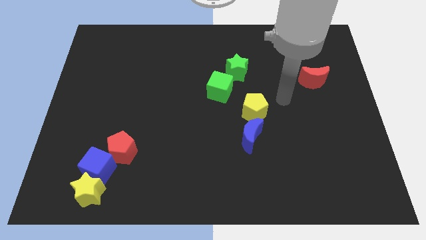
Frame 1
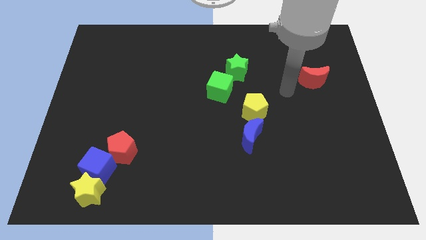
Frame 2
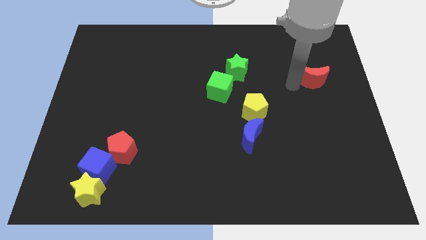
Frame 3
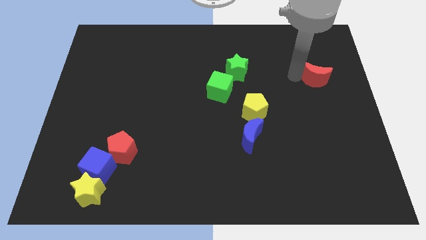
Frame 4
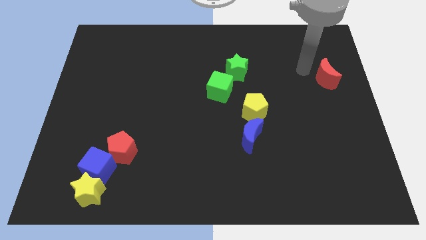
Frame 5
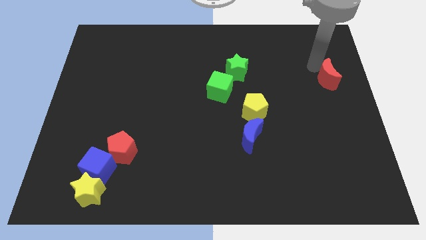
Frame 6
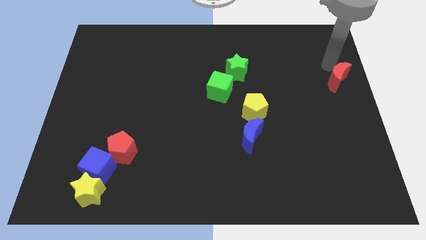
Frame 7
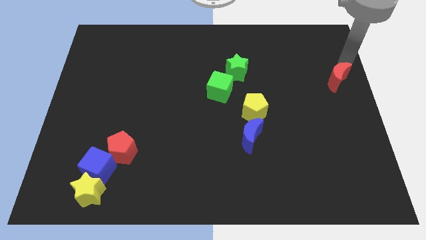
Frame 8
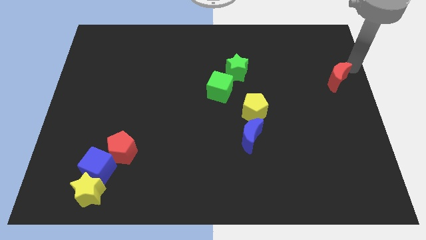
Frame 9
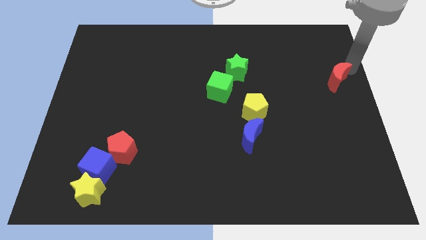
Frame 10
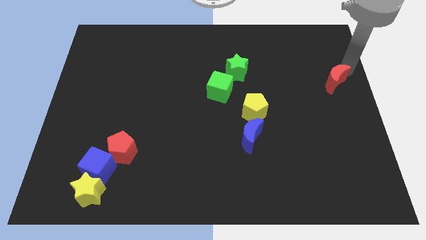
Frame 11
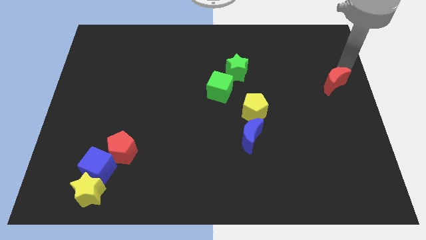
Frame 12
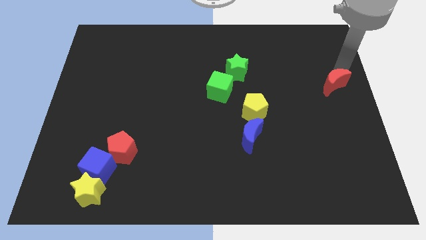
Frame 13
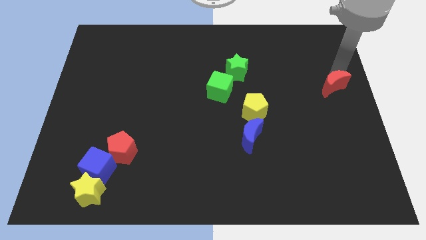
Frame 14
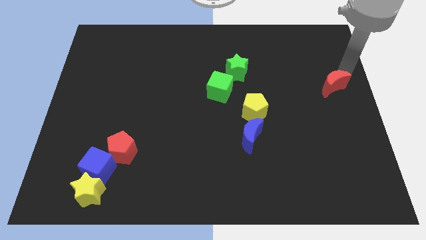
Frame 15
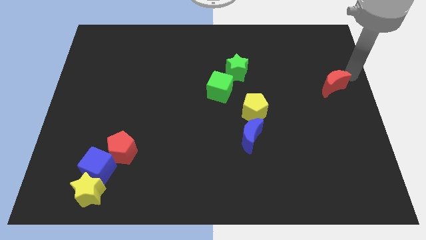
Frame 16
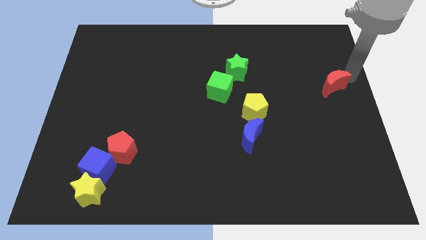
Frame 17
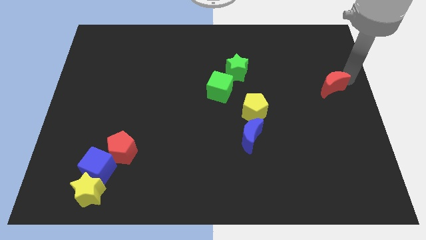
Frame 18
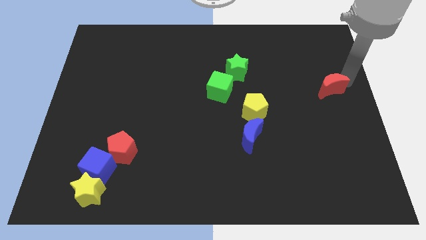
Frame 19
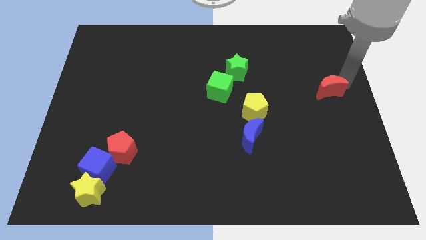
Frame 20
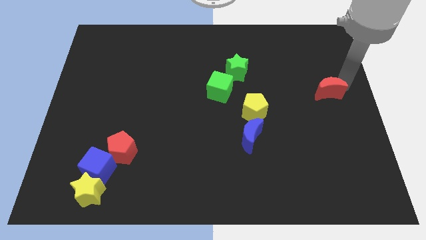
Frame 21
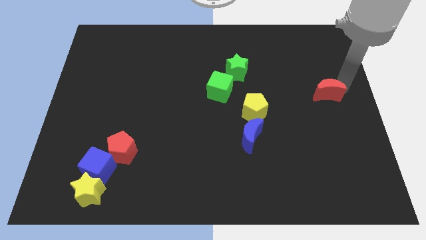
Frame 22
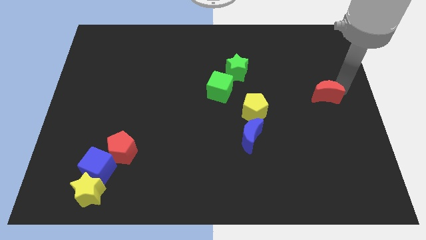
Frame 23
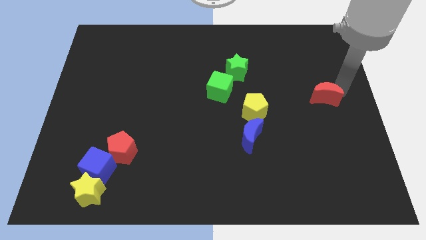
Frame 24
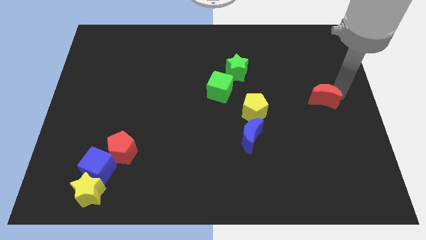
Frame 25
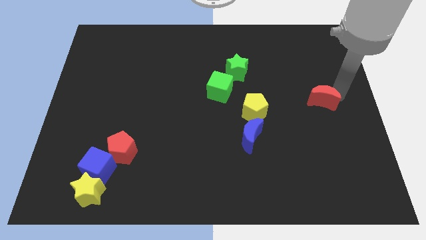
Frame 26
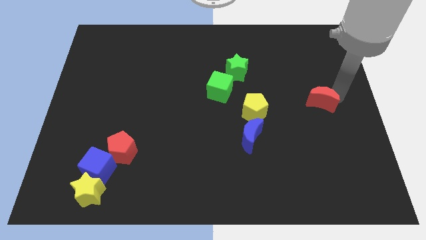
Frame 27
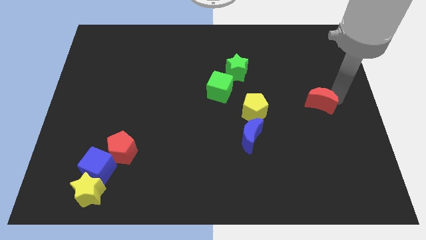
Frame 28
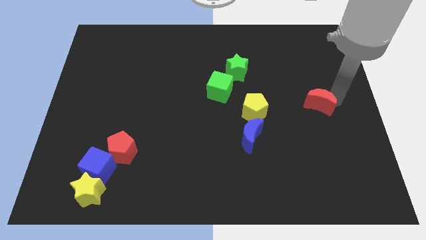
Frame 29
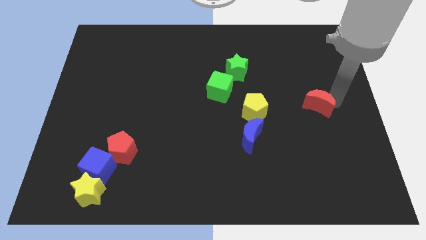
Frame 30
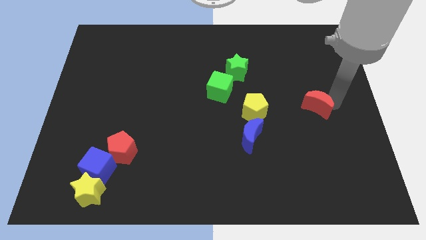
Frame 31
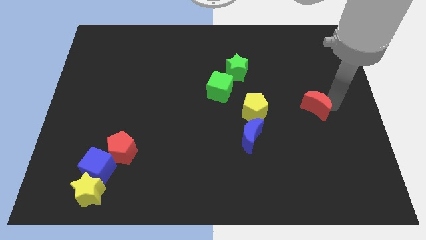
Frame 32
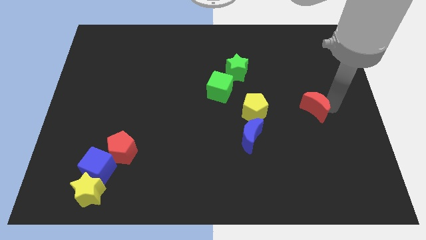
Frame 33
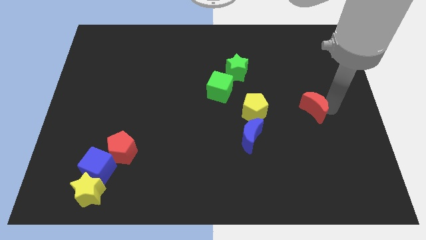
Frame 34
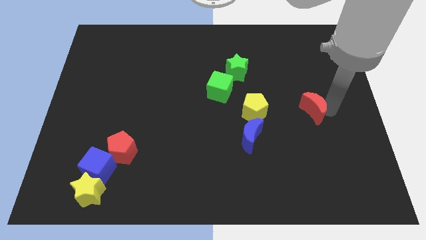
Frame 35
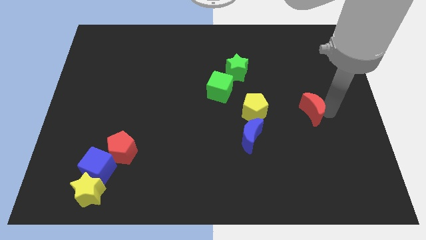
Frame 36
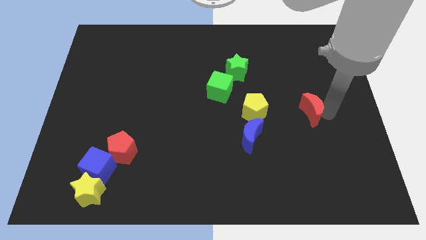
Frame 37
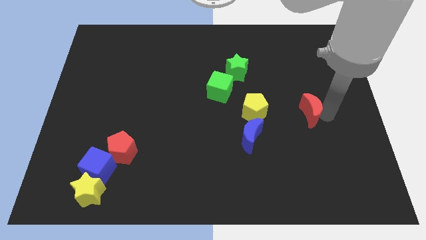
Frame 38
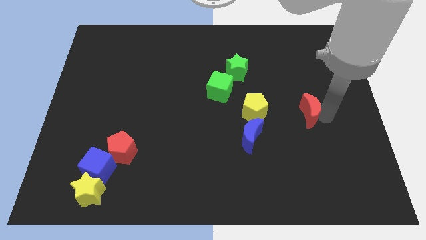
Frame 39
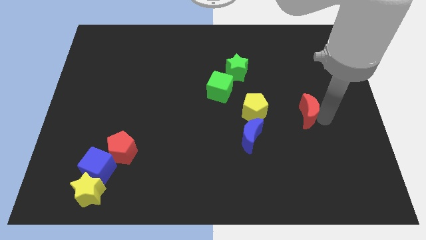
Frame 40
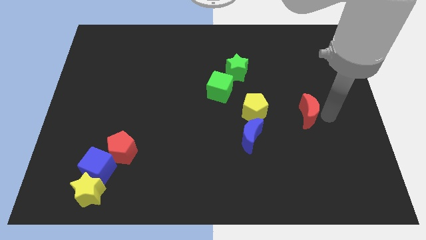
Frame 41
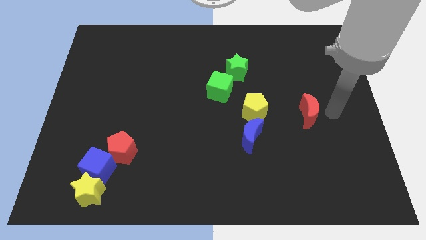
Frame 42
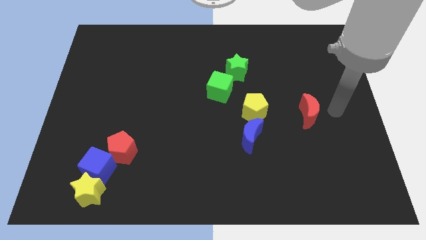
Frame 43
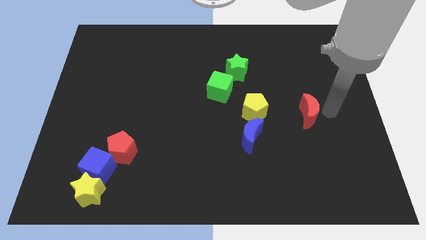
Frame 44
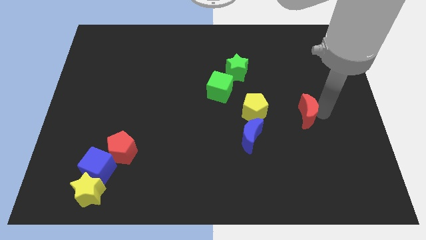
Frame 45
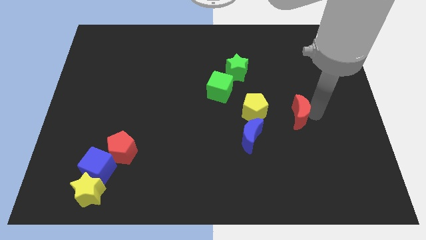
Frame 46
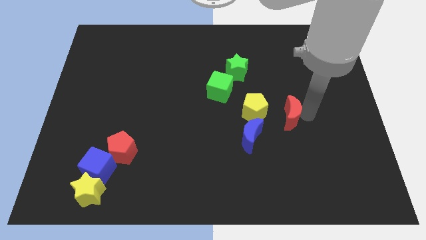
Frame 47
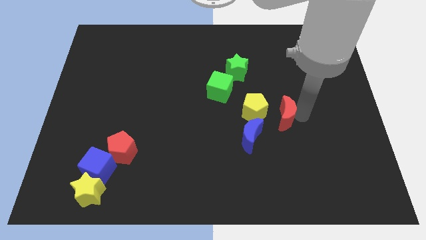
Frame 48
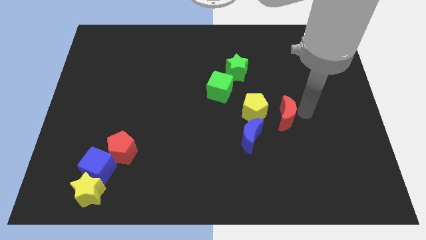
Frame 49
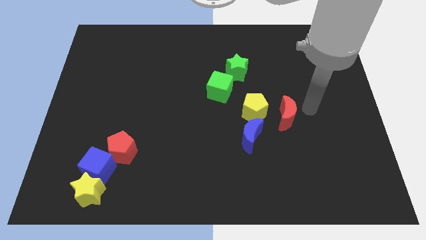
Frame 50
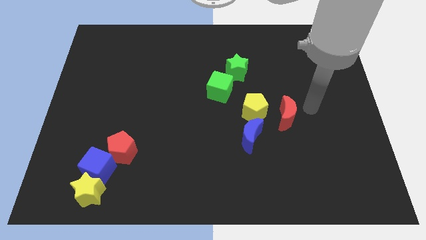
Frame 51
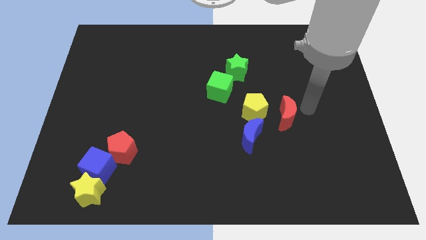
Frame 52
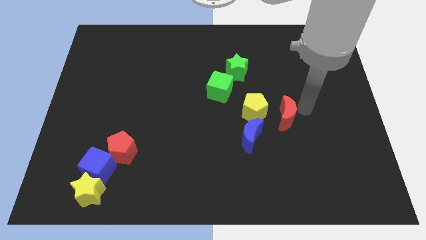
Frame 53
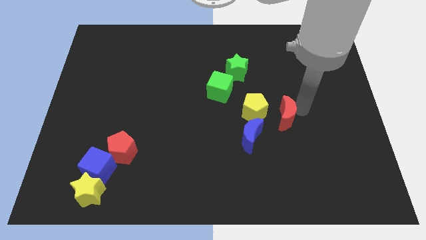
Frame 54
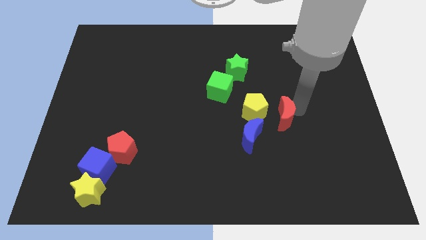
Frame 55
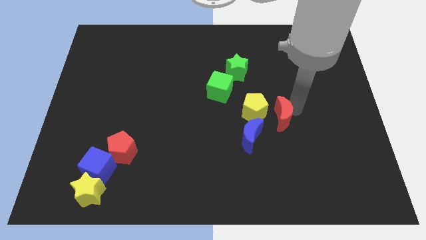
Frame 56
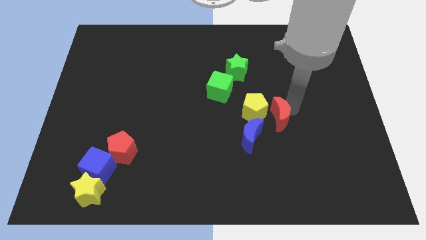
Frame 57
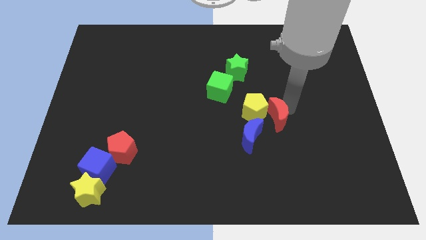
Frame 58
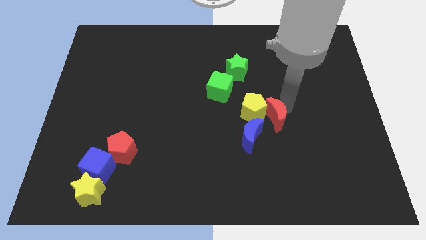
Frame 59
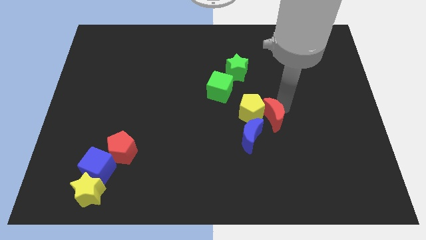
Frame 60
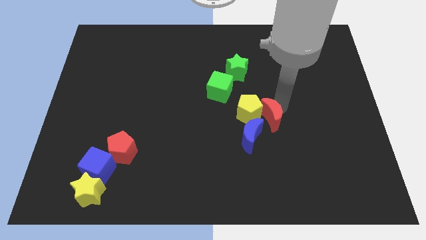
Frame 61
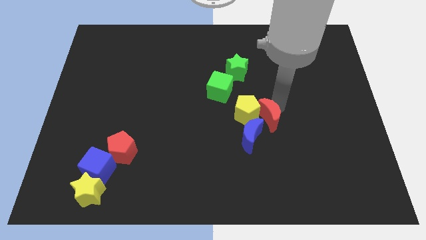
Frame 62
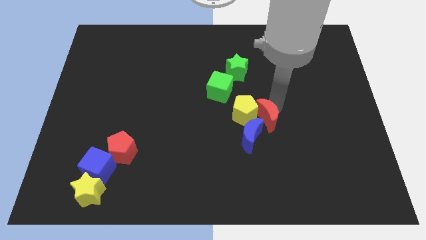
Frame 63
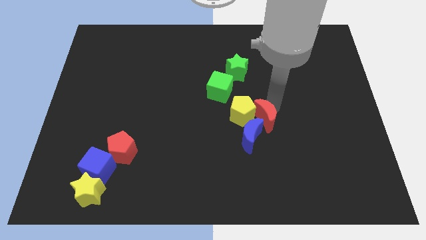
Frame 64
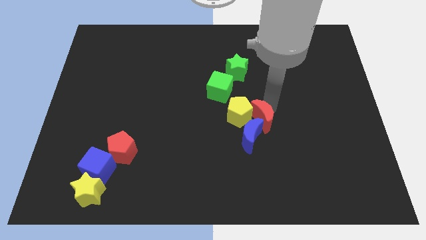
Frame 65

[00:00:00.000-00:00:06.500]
slide the red moon close to the blue moon
